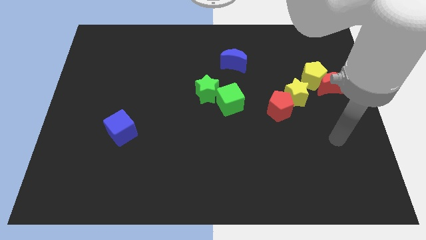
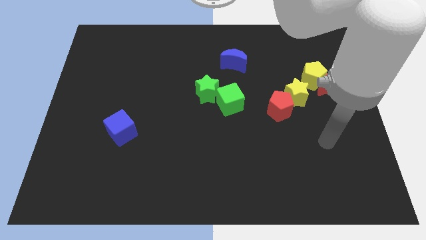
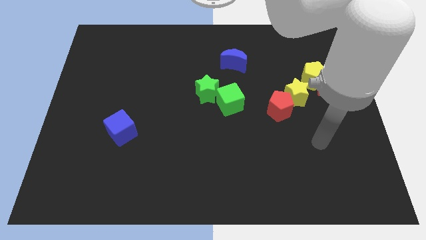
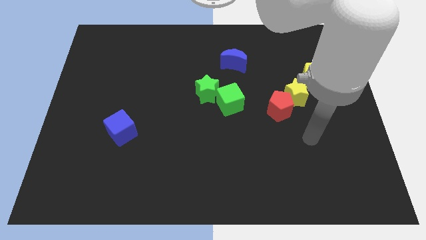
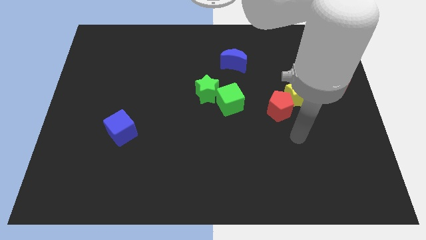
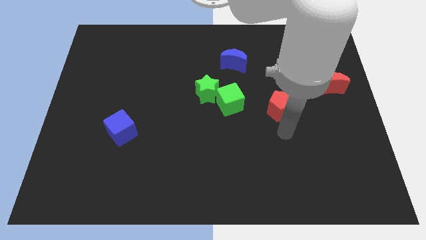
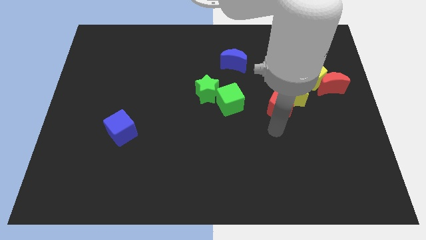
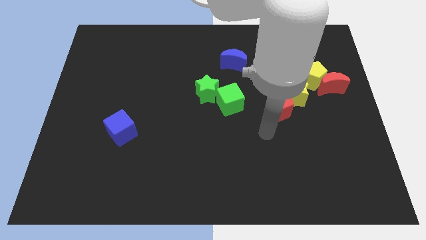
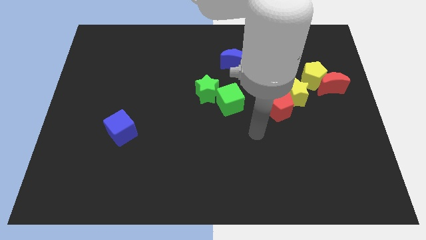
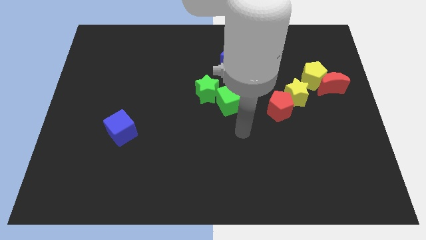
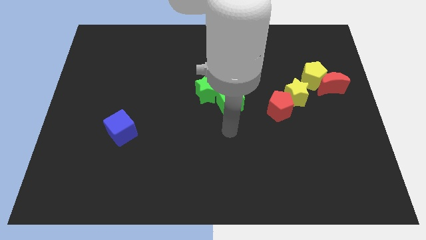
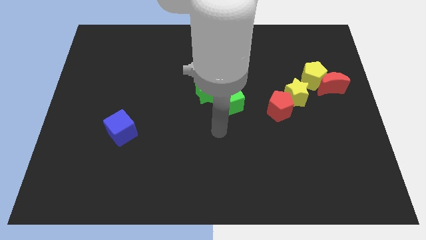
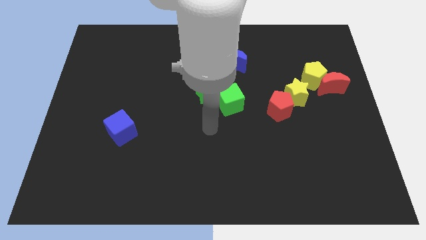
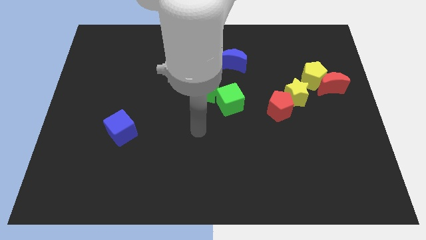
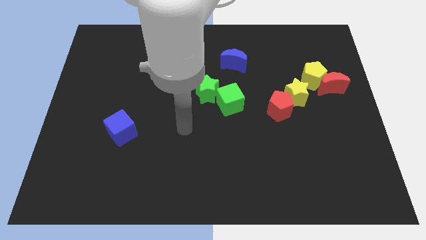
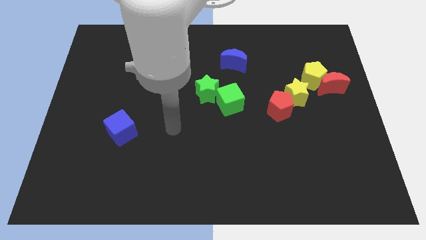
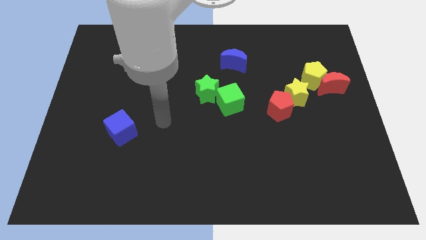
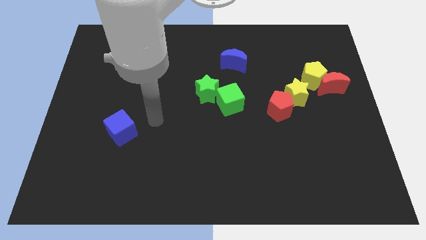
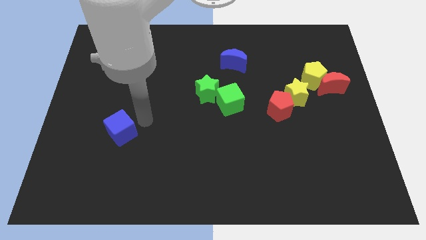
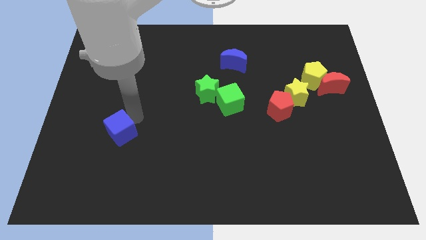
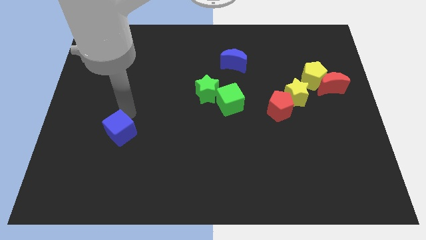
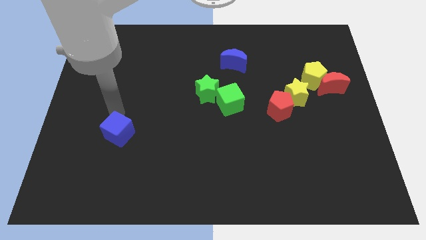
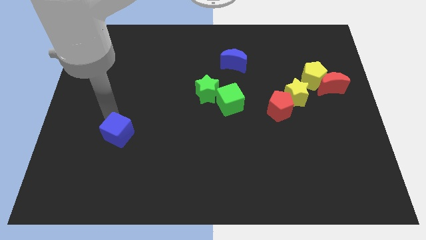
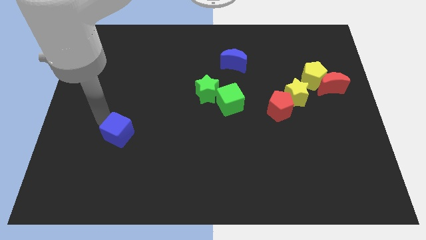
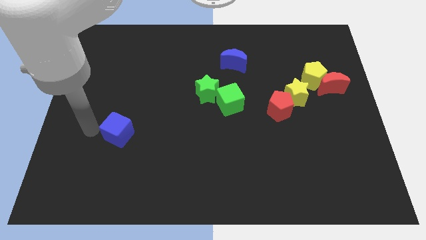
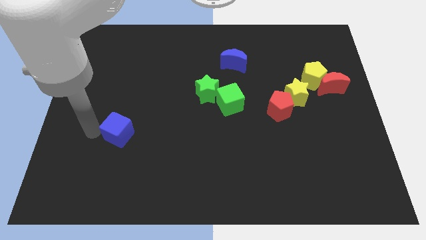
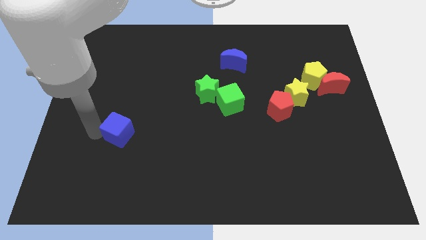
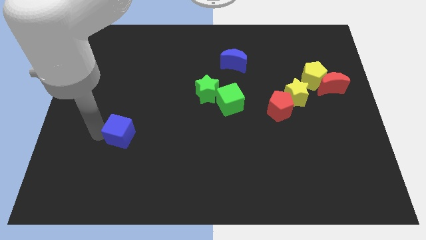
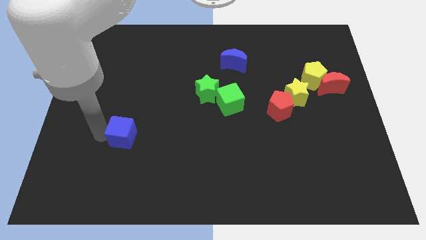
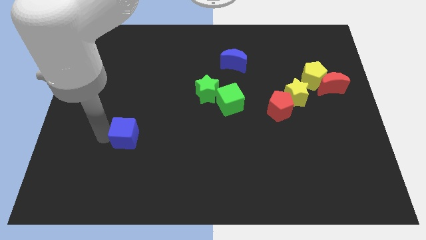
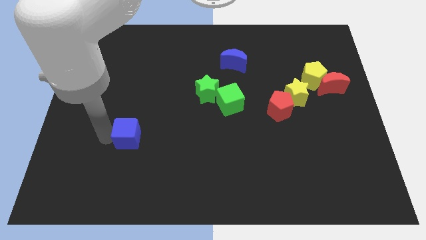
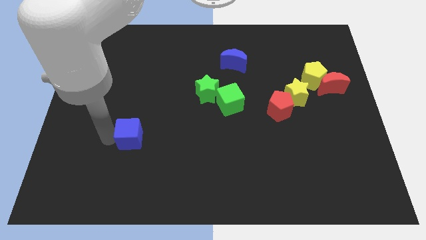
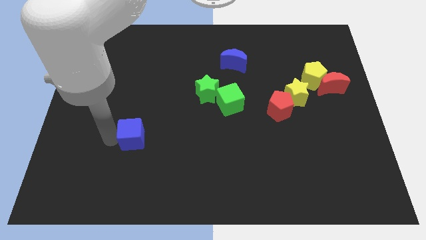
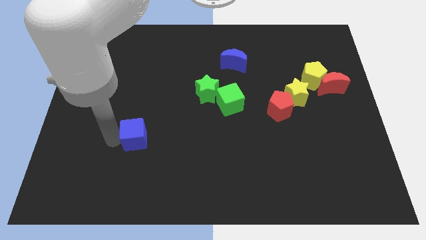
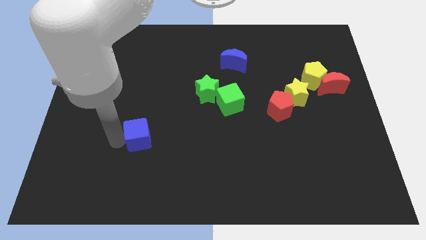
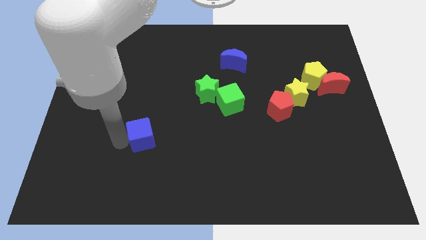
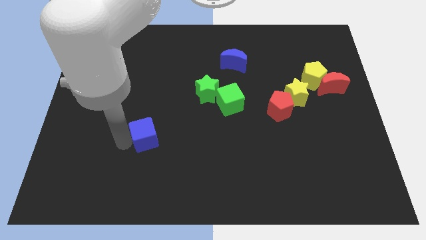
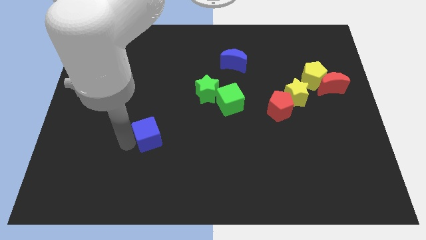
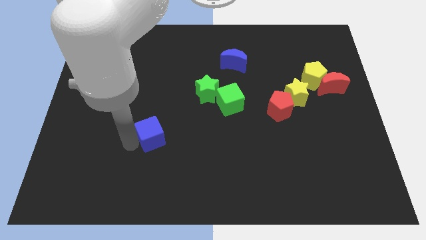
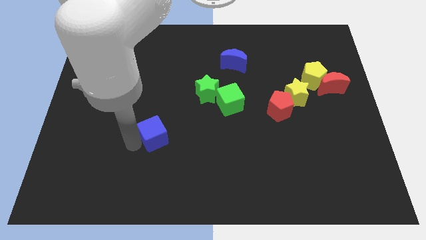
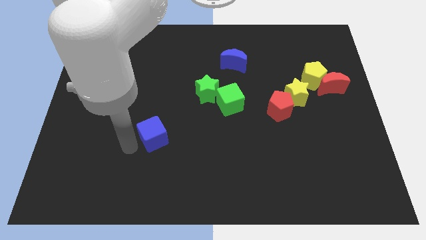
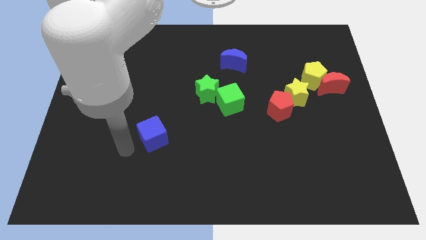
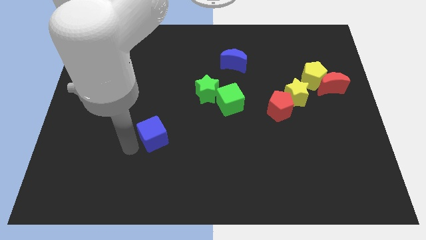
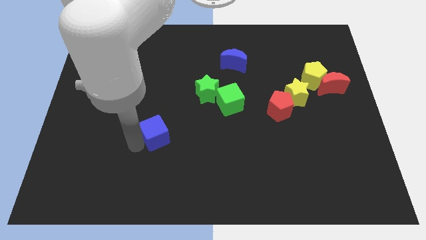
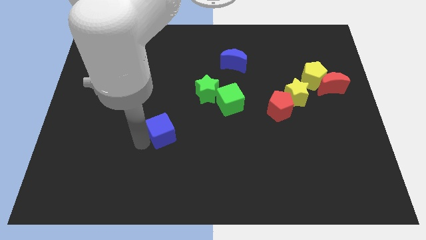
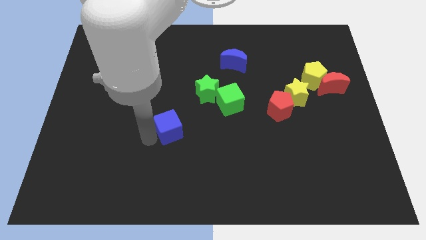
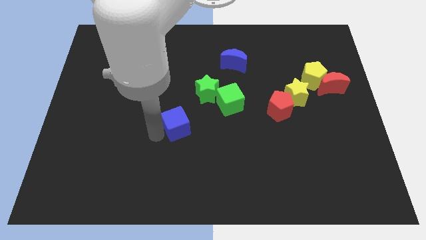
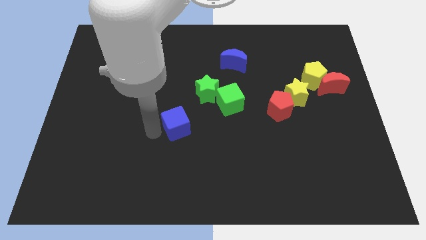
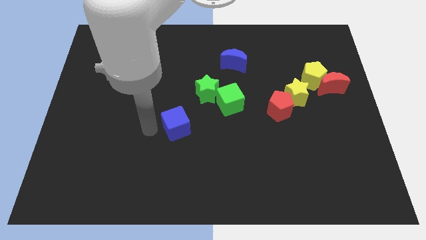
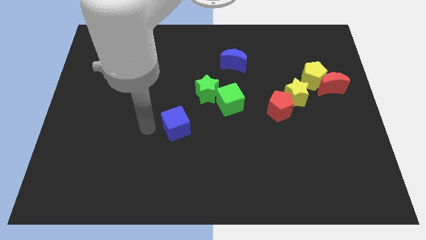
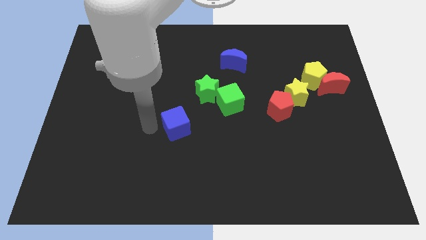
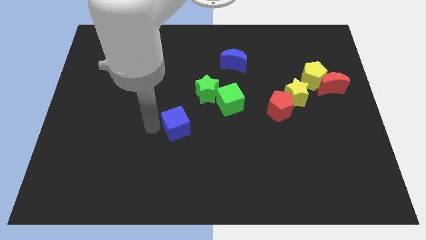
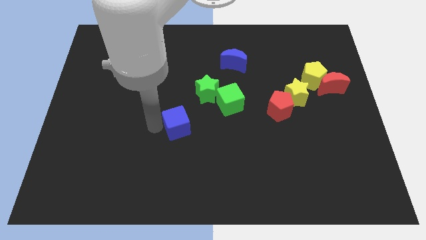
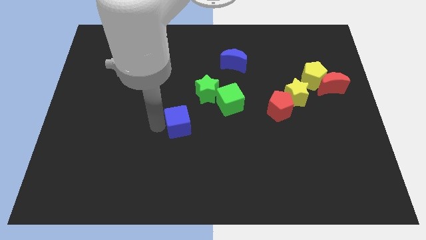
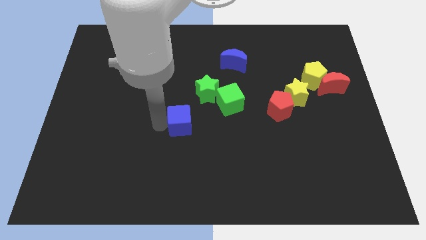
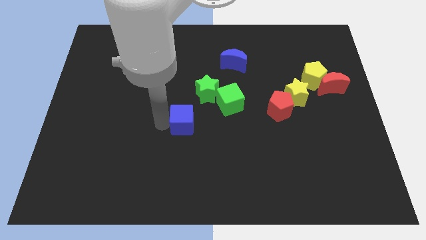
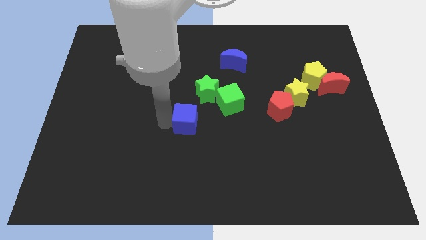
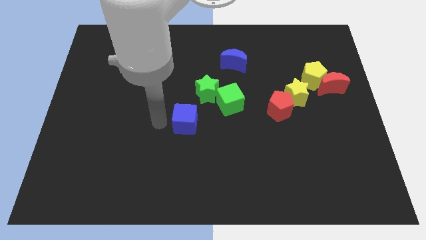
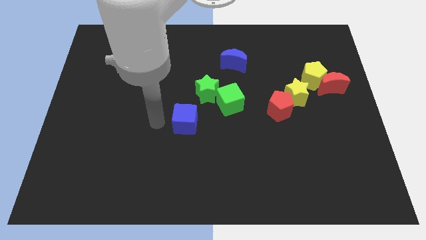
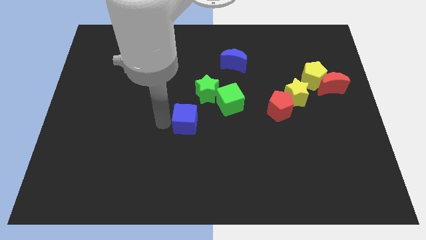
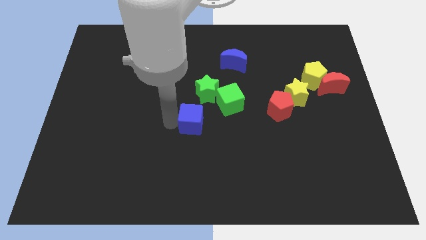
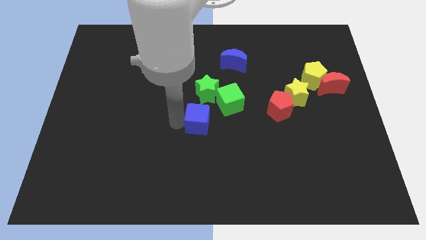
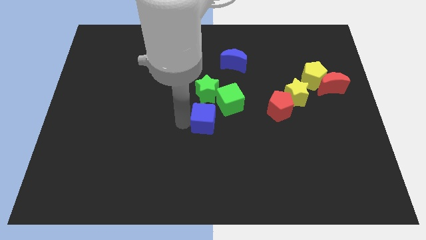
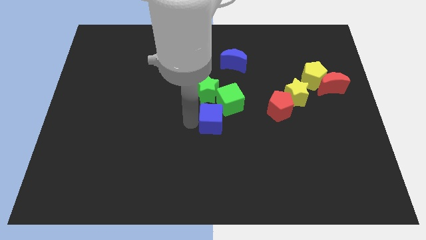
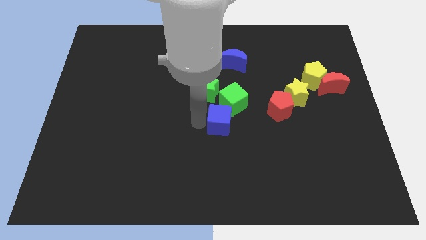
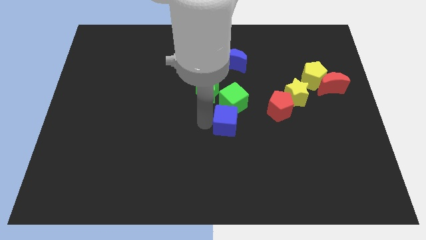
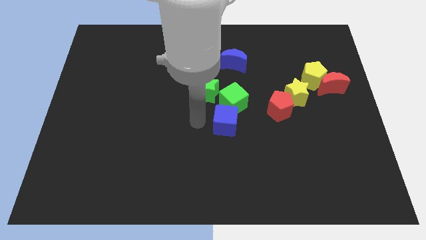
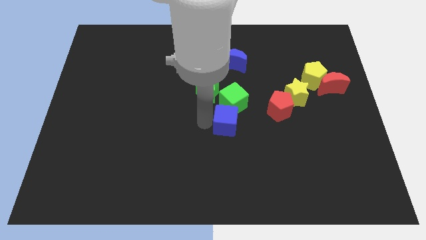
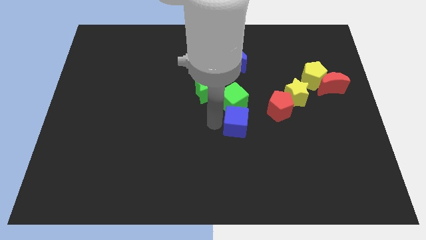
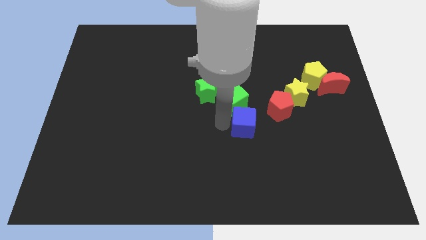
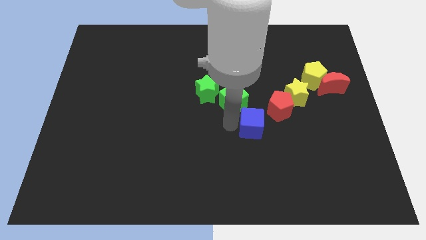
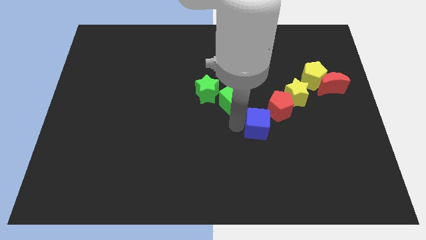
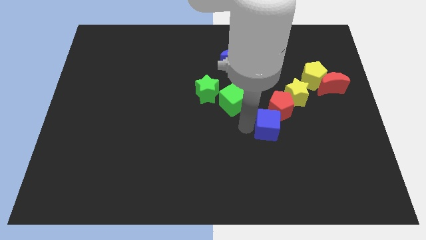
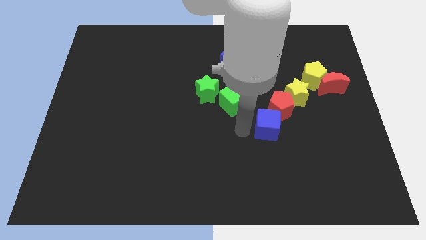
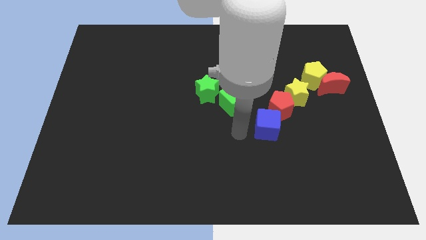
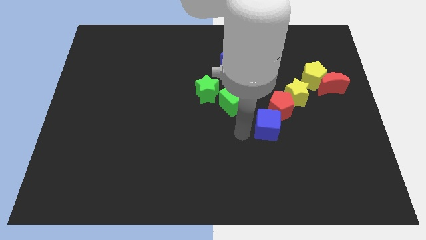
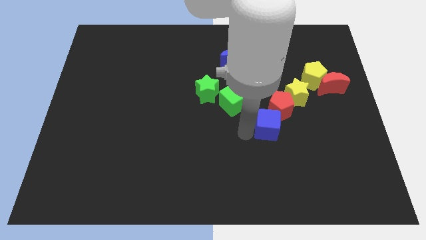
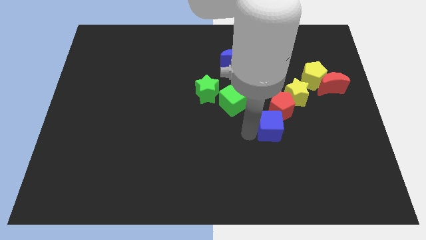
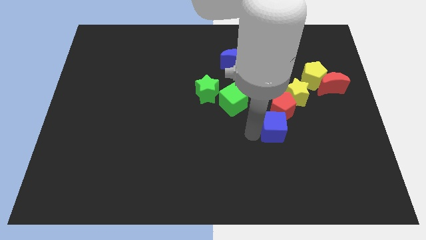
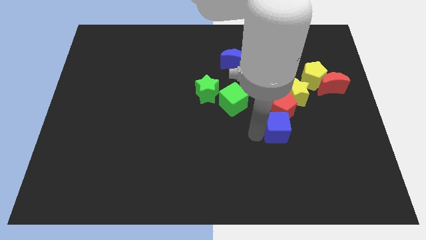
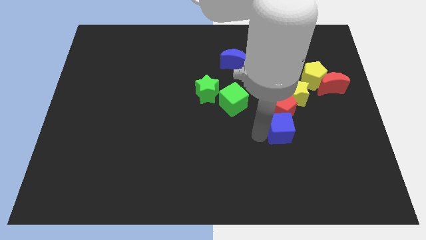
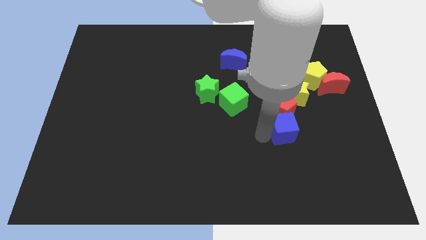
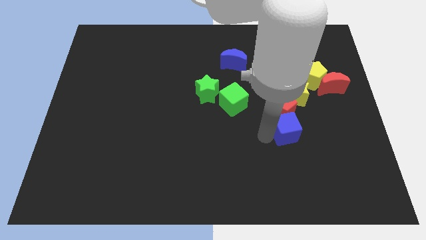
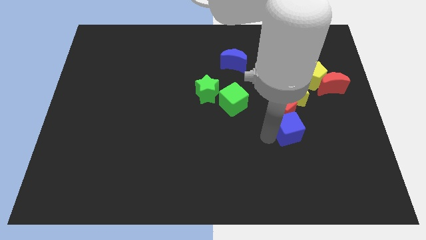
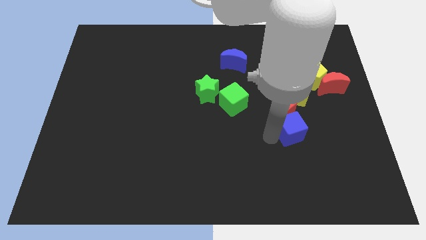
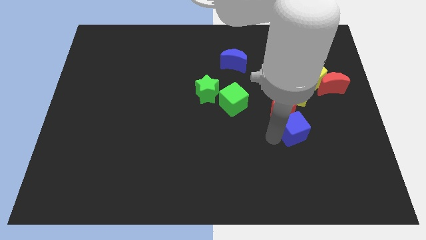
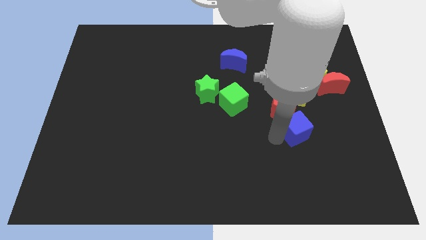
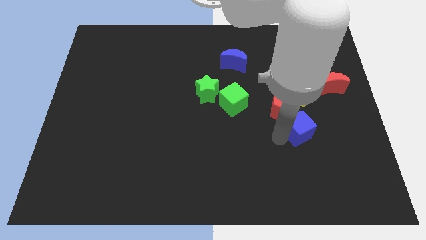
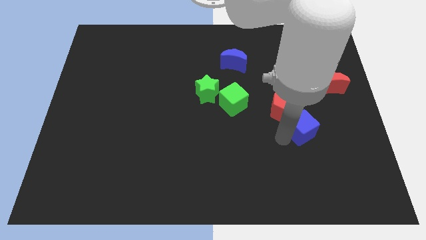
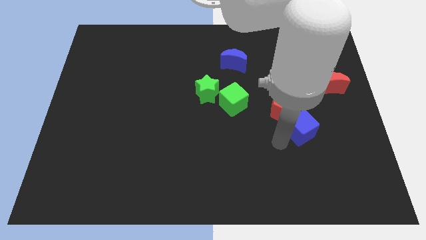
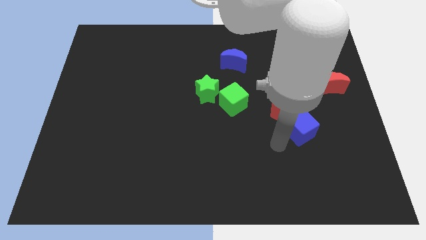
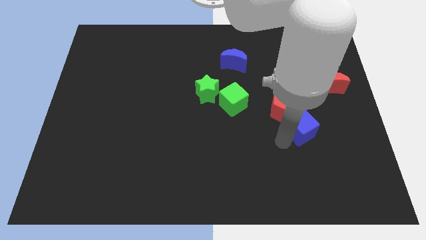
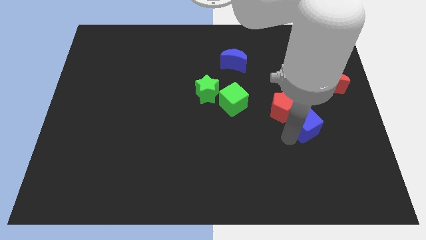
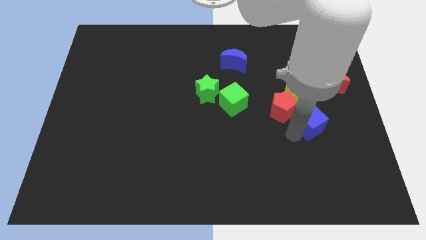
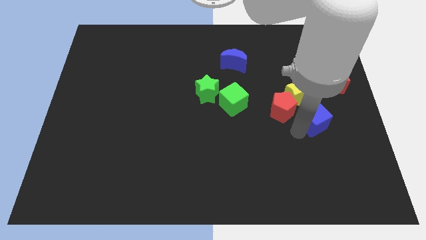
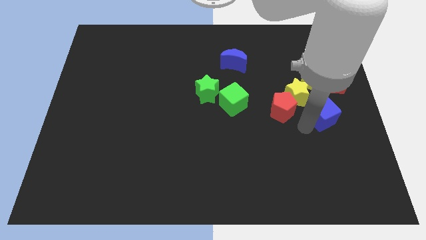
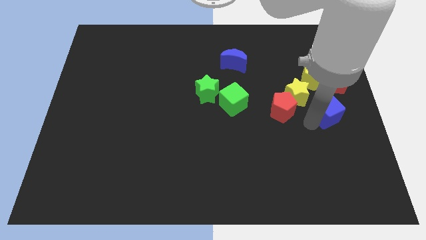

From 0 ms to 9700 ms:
move the blue cube to the right side
